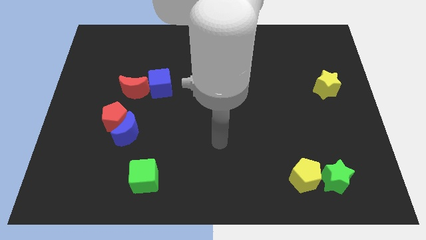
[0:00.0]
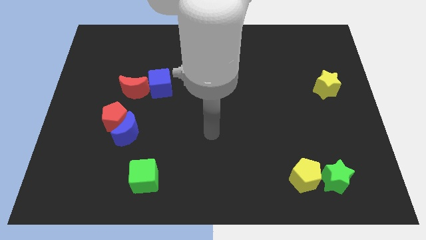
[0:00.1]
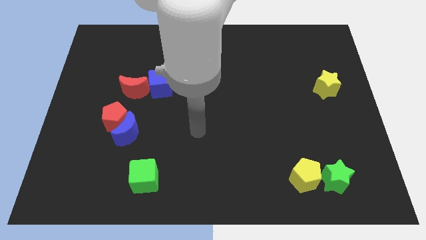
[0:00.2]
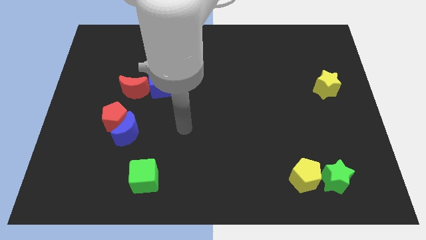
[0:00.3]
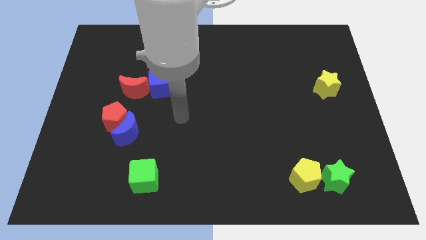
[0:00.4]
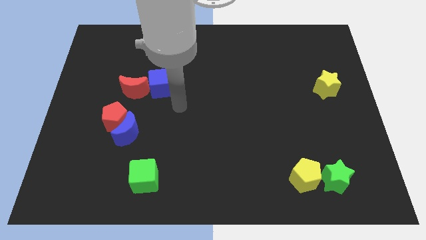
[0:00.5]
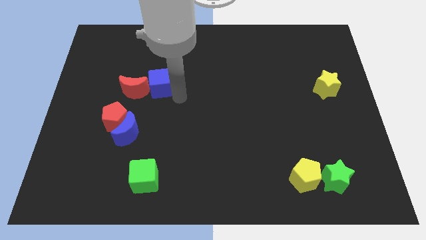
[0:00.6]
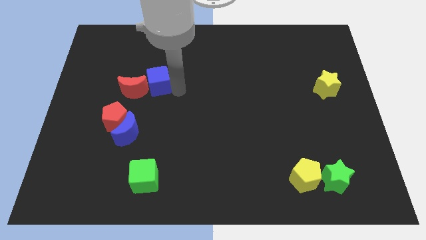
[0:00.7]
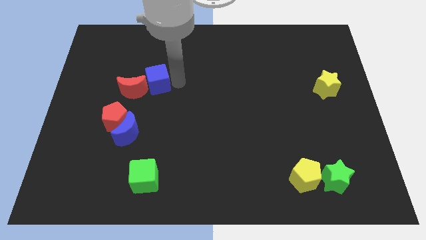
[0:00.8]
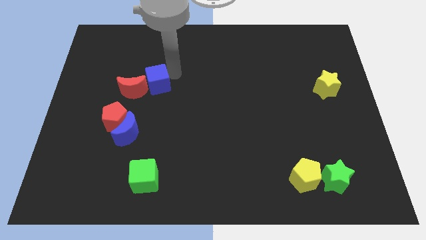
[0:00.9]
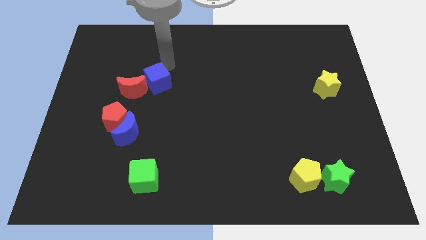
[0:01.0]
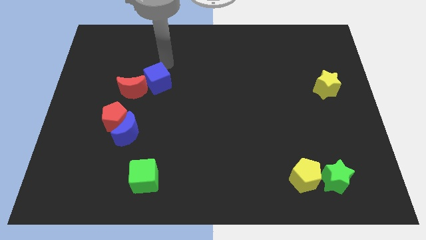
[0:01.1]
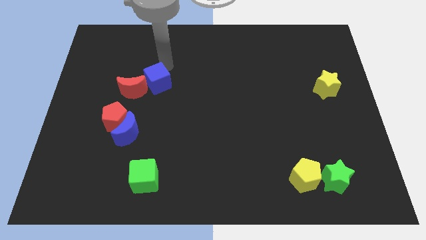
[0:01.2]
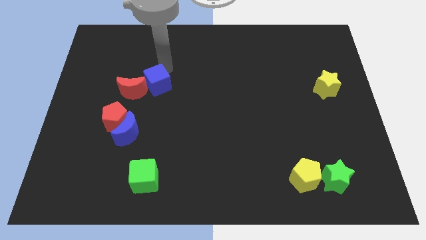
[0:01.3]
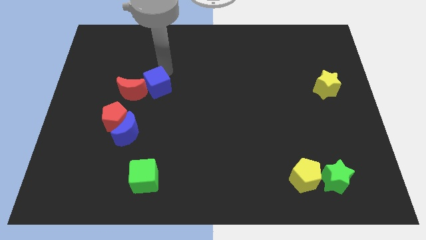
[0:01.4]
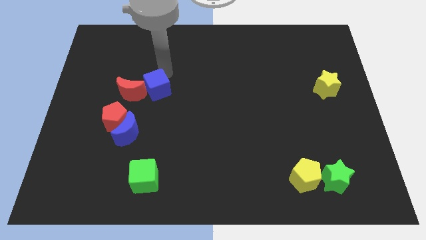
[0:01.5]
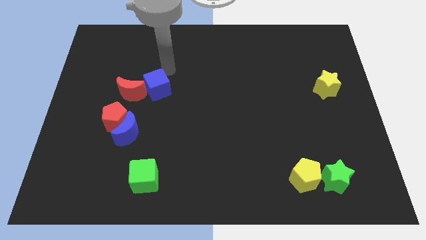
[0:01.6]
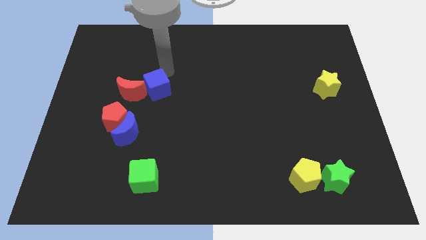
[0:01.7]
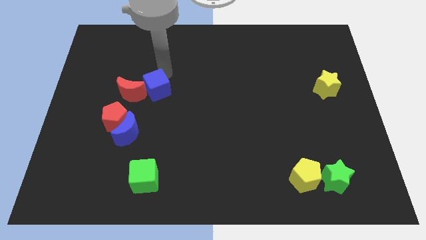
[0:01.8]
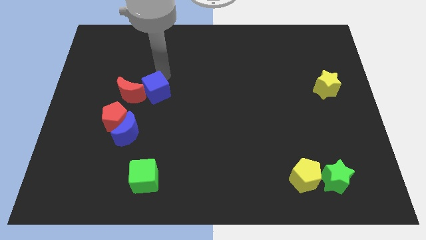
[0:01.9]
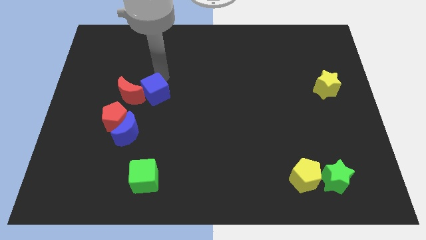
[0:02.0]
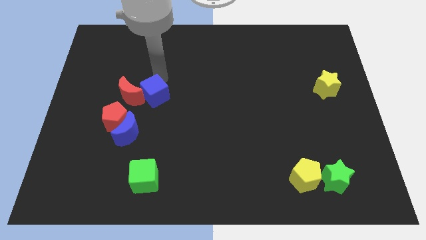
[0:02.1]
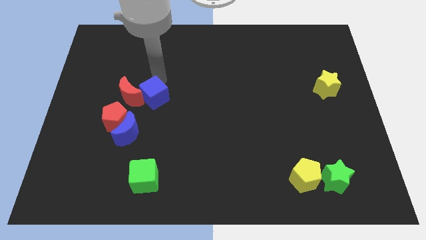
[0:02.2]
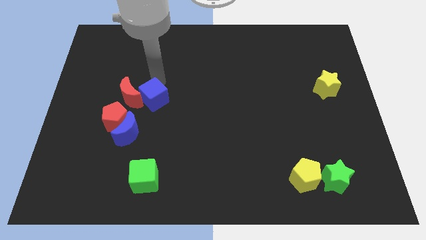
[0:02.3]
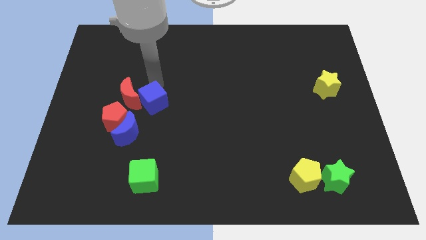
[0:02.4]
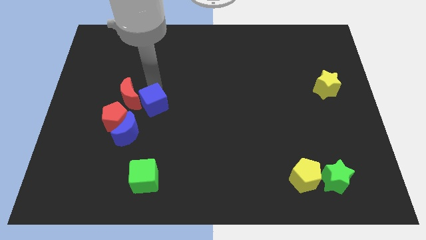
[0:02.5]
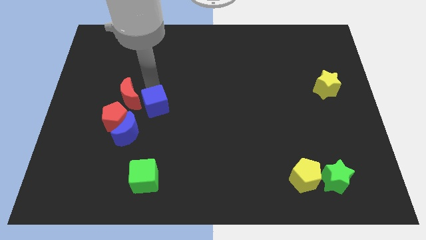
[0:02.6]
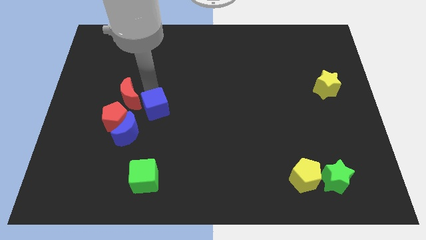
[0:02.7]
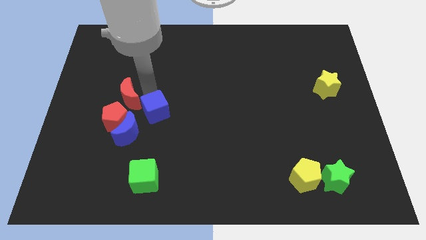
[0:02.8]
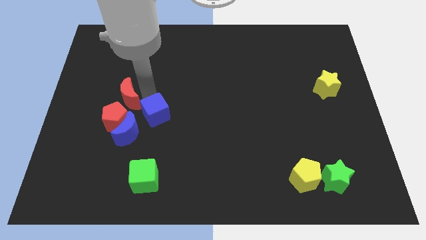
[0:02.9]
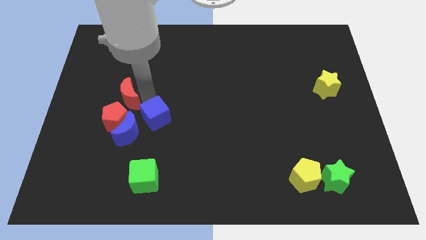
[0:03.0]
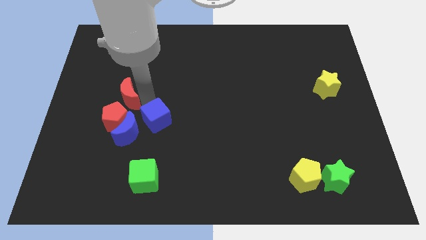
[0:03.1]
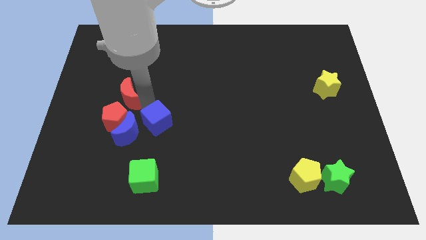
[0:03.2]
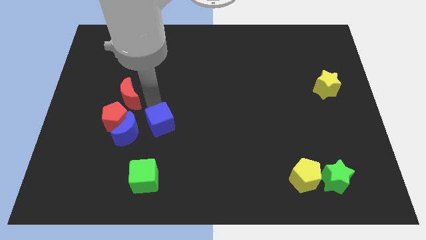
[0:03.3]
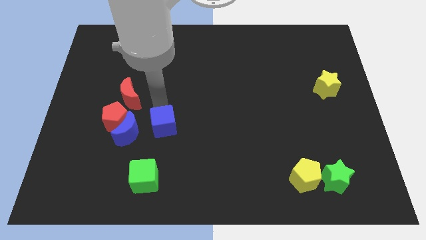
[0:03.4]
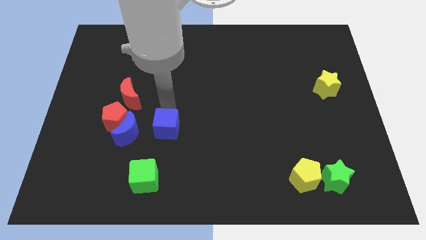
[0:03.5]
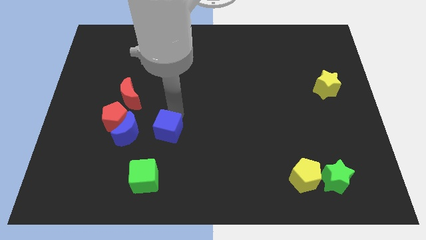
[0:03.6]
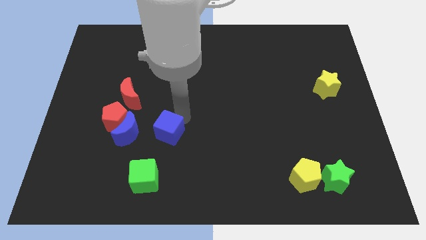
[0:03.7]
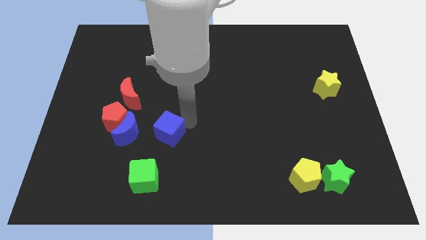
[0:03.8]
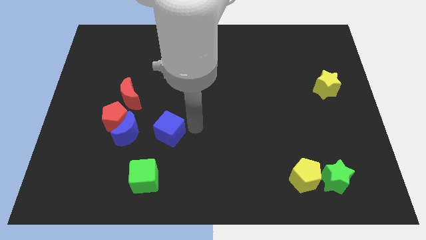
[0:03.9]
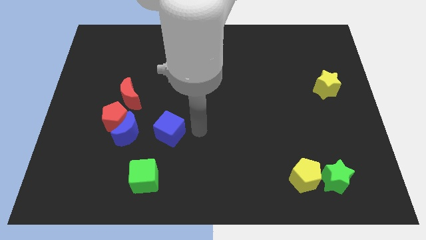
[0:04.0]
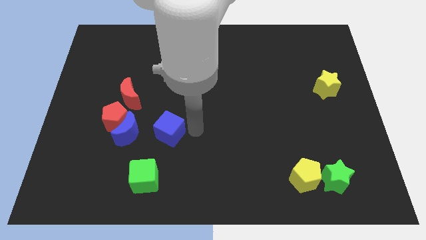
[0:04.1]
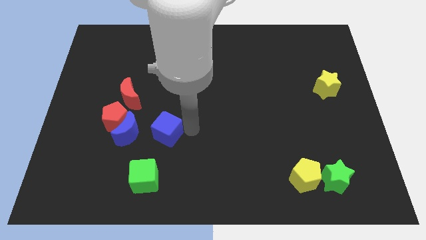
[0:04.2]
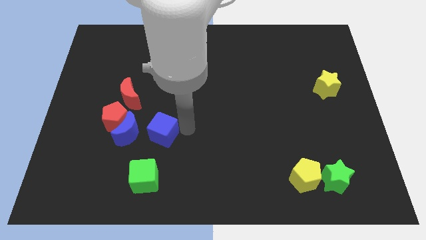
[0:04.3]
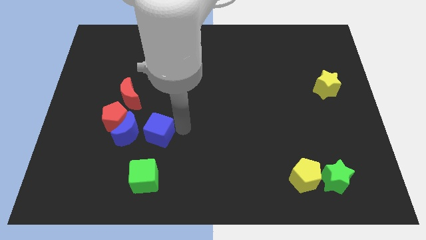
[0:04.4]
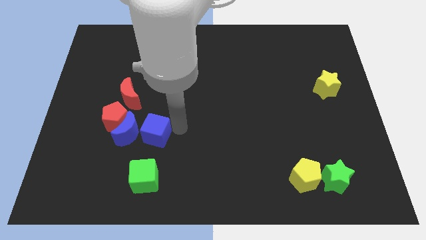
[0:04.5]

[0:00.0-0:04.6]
put the blue cube to the blue moon

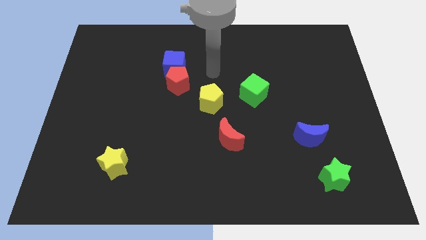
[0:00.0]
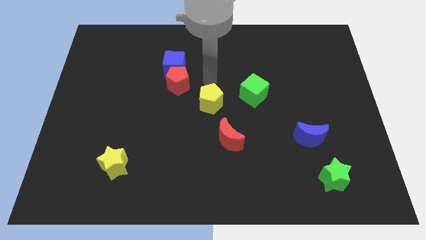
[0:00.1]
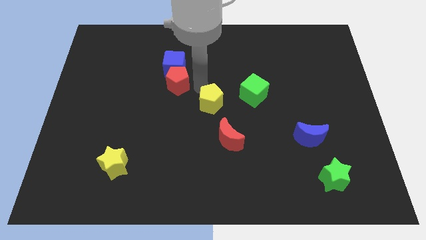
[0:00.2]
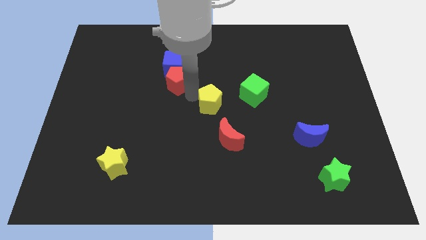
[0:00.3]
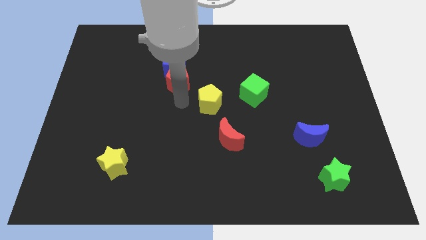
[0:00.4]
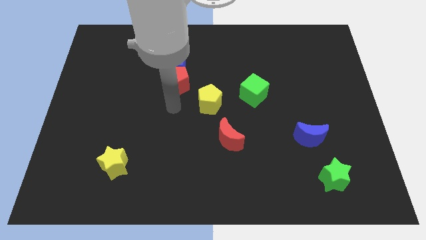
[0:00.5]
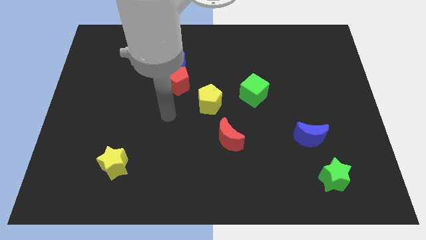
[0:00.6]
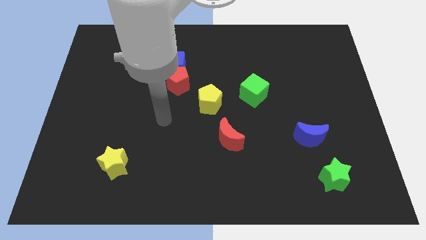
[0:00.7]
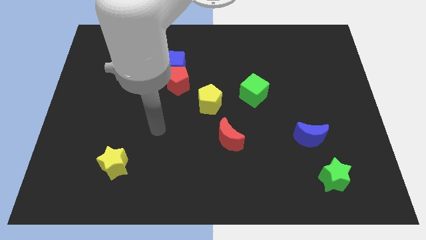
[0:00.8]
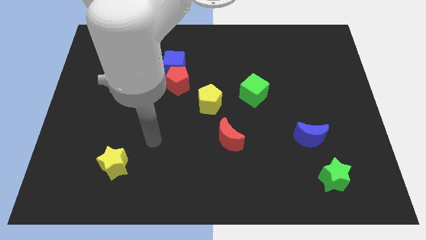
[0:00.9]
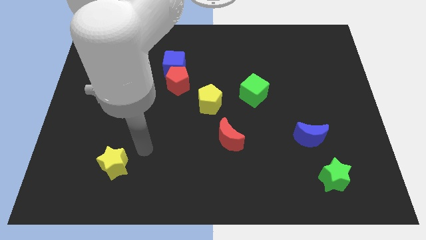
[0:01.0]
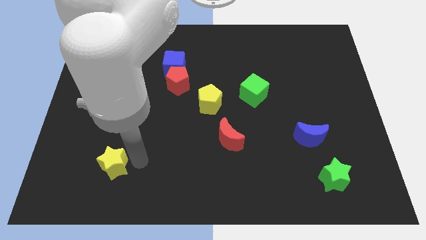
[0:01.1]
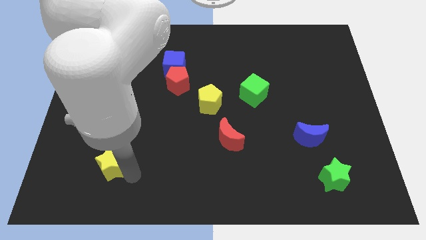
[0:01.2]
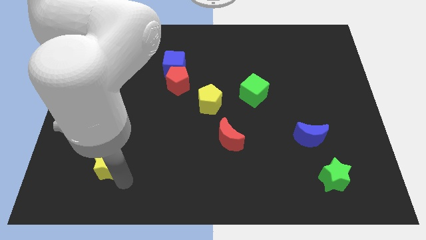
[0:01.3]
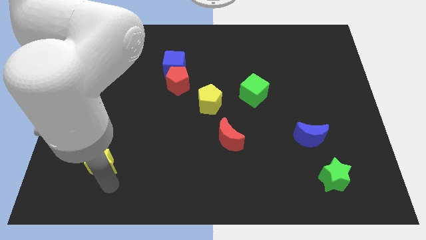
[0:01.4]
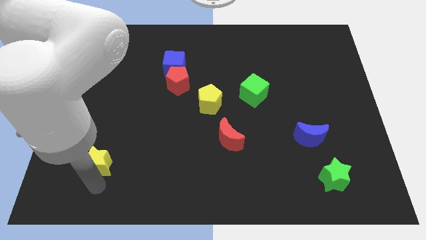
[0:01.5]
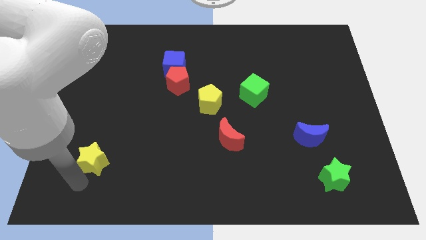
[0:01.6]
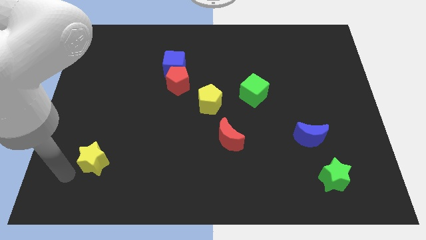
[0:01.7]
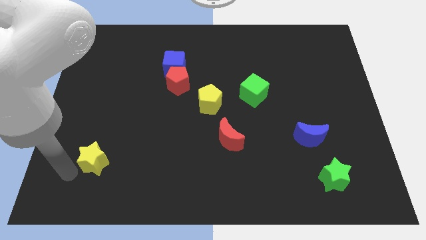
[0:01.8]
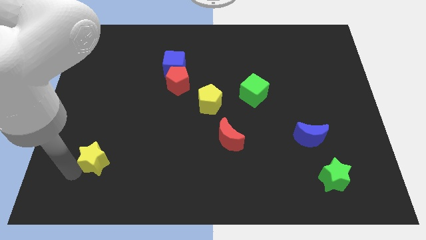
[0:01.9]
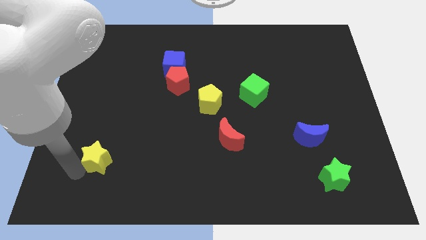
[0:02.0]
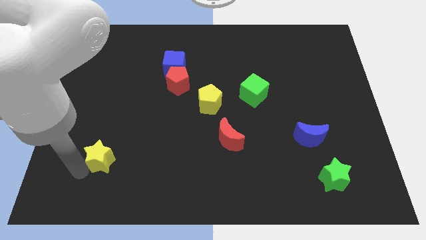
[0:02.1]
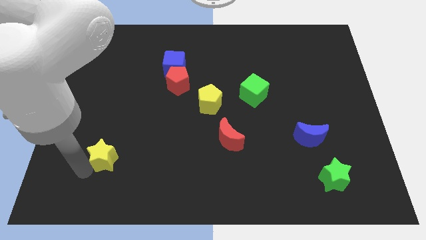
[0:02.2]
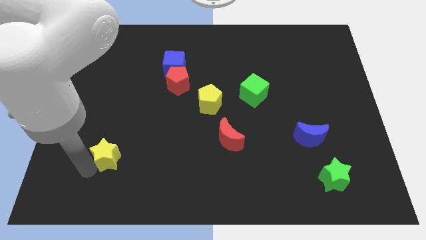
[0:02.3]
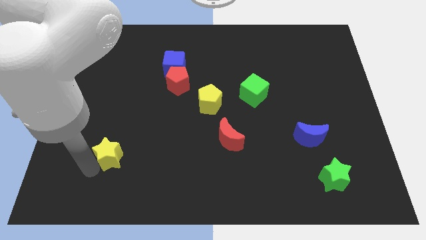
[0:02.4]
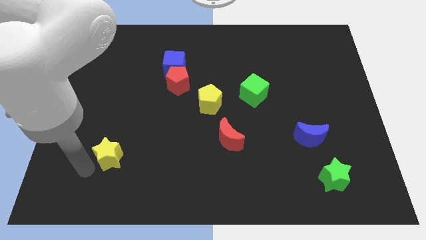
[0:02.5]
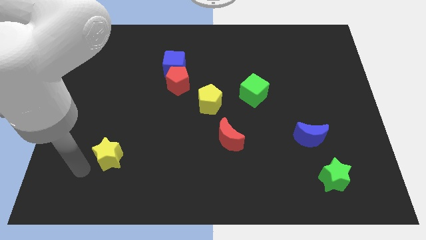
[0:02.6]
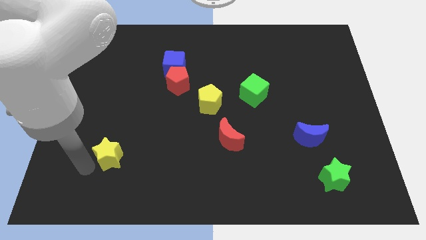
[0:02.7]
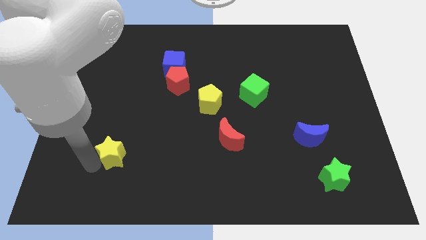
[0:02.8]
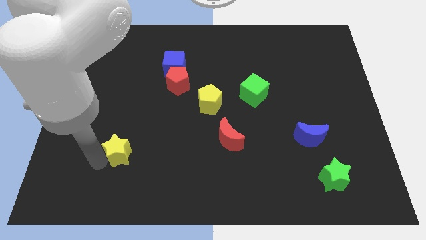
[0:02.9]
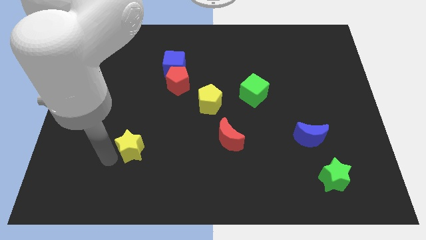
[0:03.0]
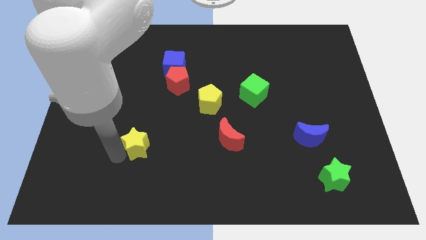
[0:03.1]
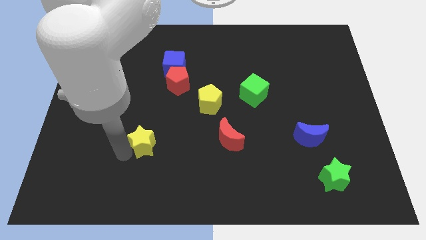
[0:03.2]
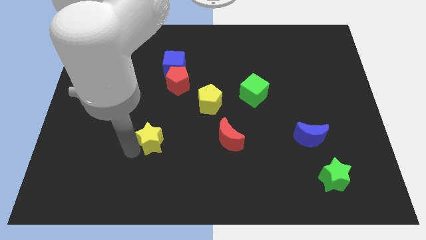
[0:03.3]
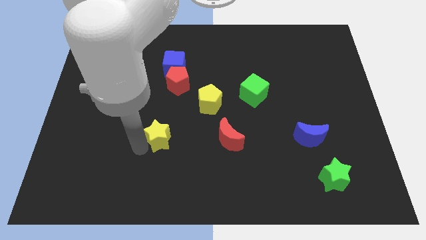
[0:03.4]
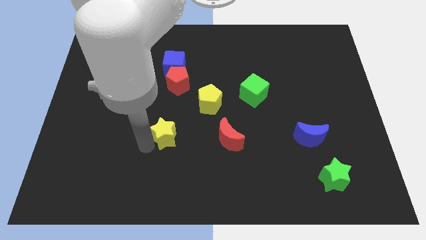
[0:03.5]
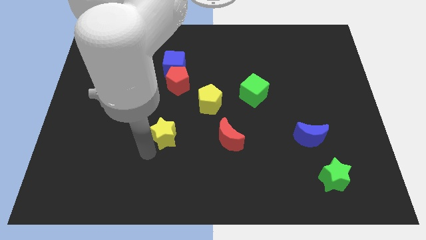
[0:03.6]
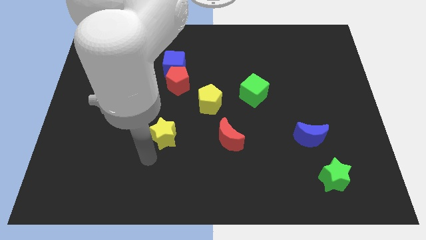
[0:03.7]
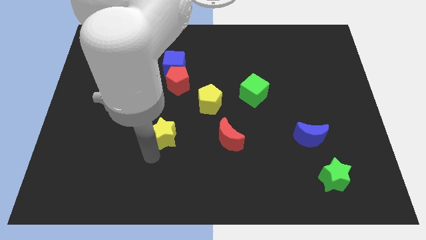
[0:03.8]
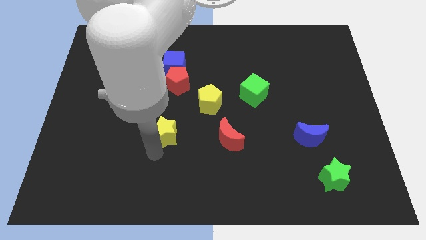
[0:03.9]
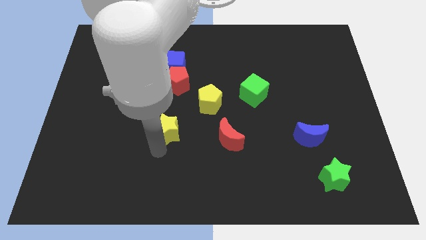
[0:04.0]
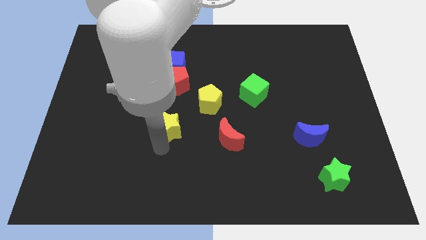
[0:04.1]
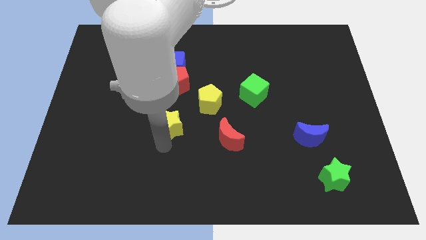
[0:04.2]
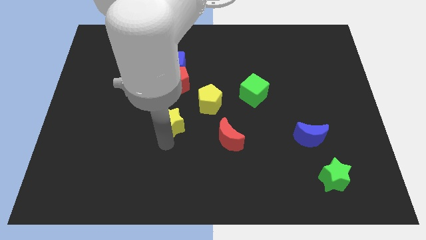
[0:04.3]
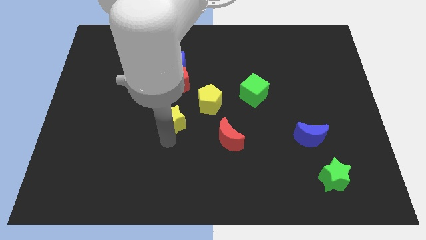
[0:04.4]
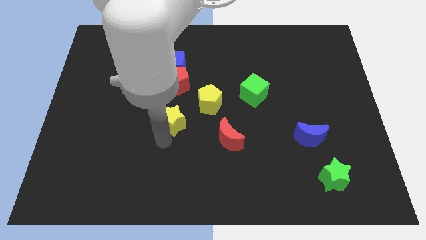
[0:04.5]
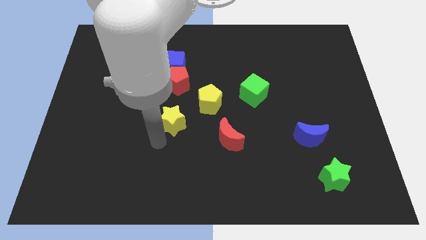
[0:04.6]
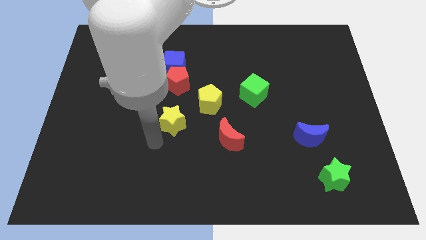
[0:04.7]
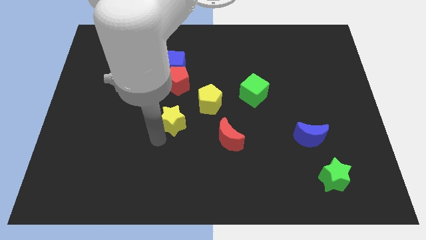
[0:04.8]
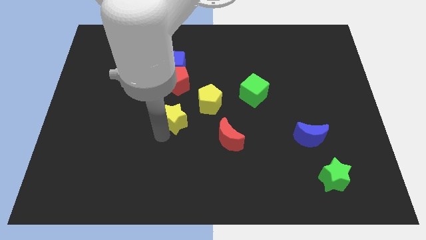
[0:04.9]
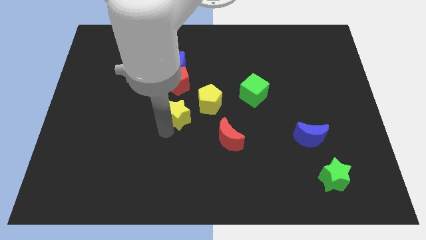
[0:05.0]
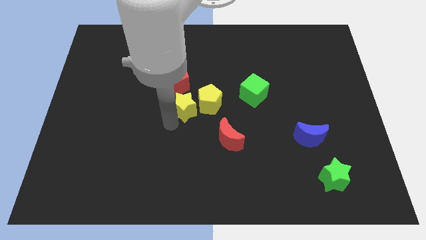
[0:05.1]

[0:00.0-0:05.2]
slide the yellow star towards the yellow pentagon
